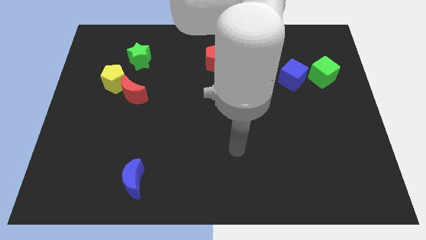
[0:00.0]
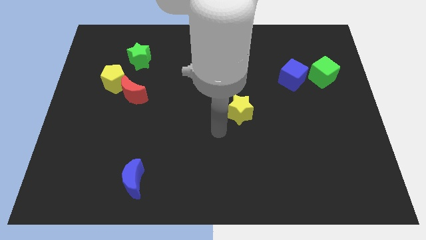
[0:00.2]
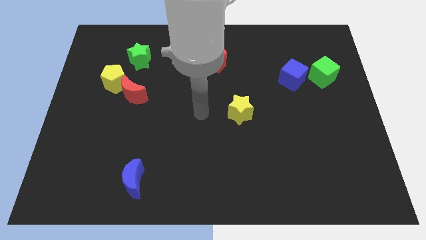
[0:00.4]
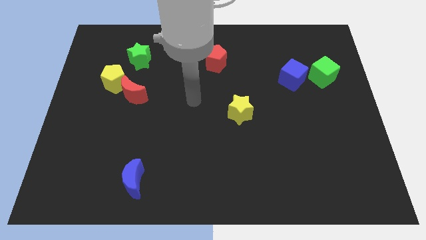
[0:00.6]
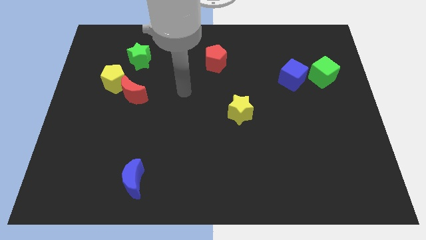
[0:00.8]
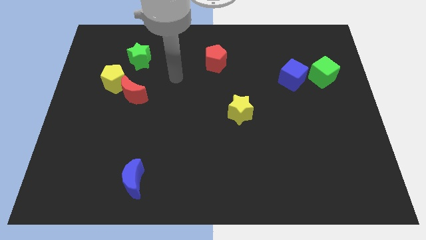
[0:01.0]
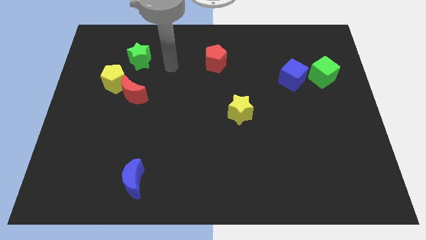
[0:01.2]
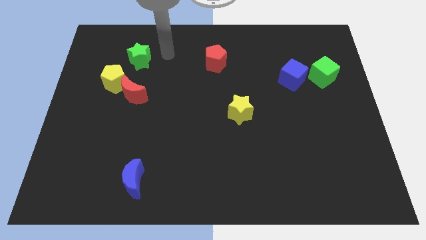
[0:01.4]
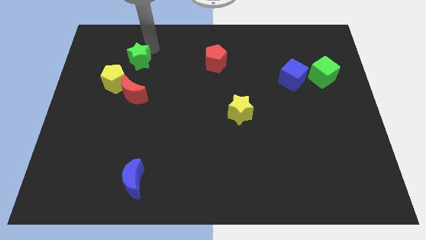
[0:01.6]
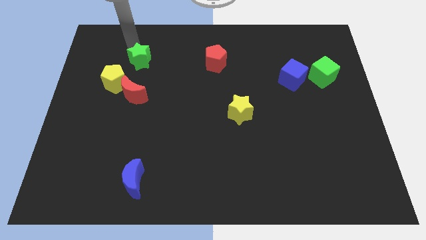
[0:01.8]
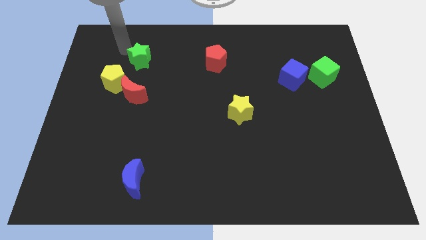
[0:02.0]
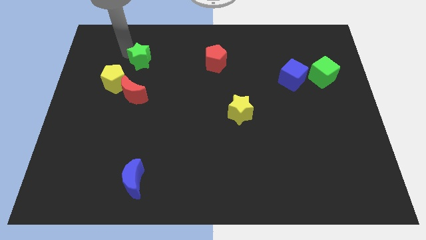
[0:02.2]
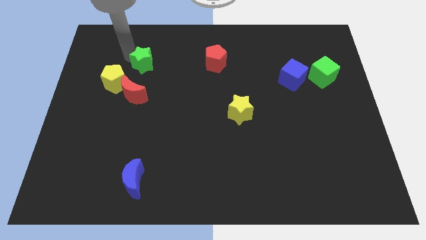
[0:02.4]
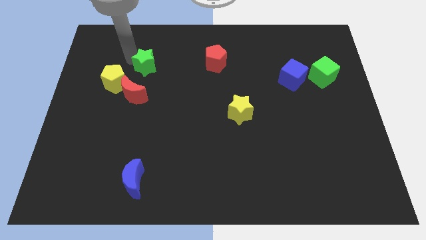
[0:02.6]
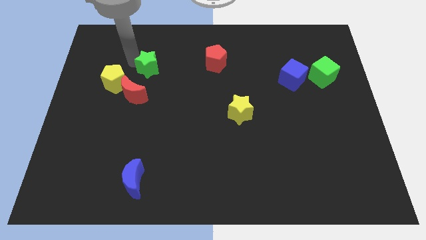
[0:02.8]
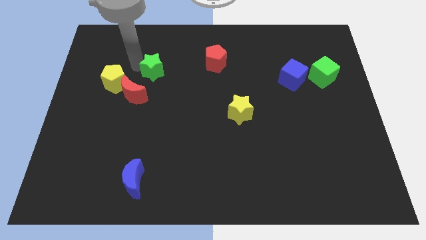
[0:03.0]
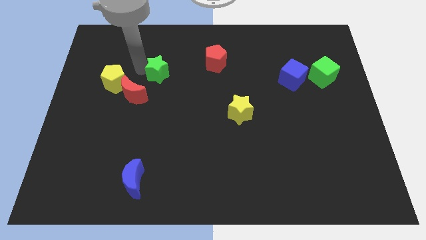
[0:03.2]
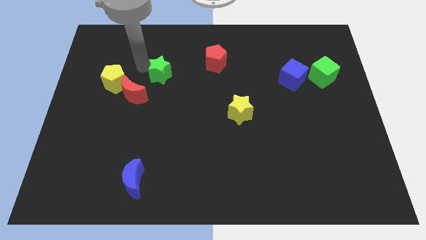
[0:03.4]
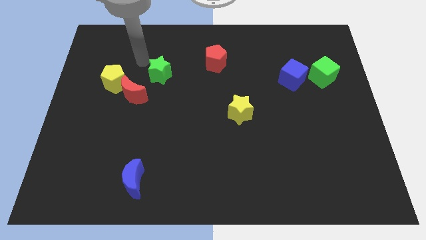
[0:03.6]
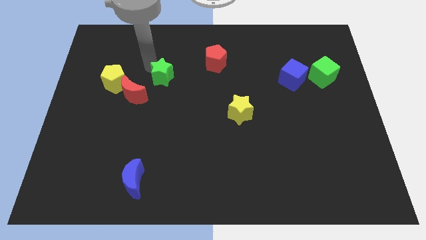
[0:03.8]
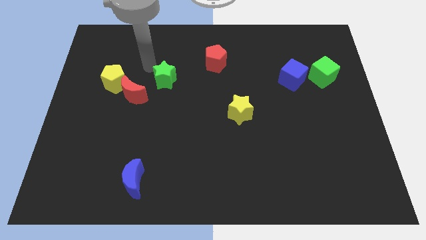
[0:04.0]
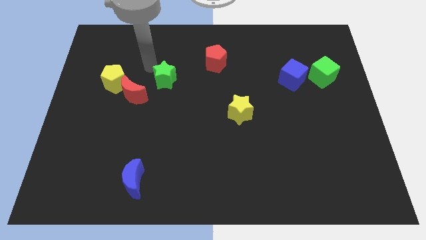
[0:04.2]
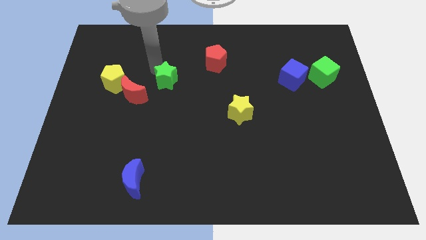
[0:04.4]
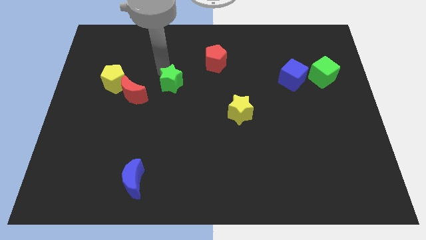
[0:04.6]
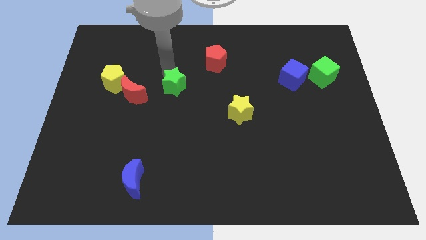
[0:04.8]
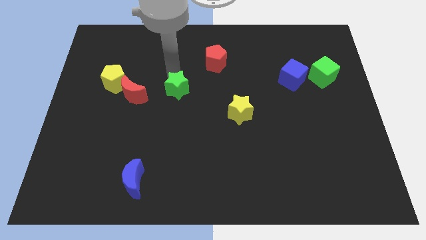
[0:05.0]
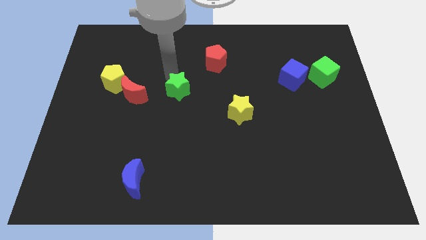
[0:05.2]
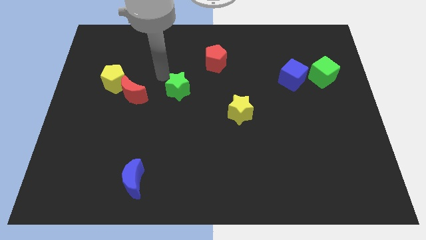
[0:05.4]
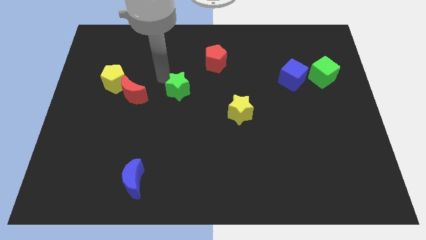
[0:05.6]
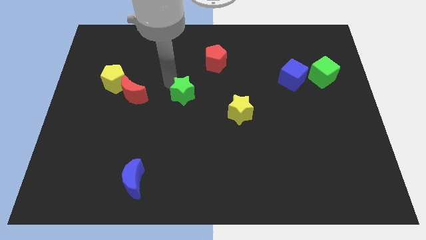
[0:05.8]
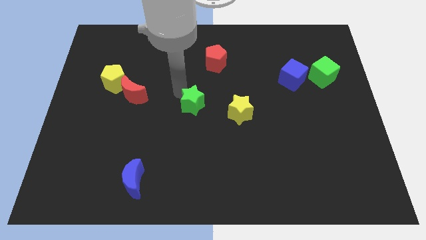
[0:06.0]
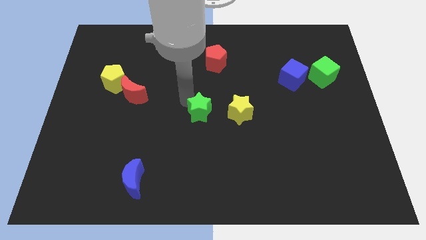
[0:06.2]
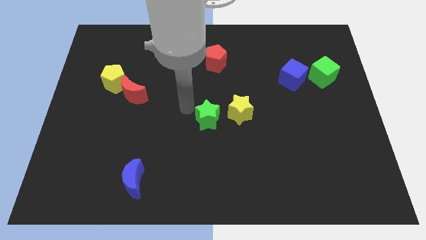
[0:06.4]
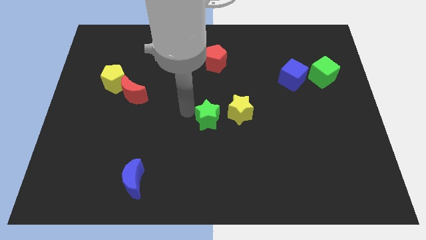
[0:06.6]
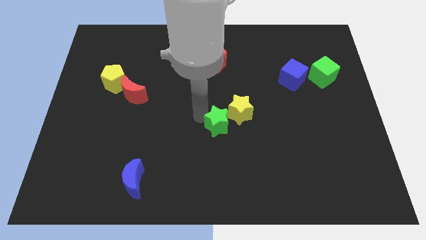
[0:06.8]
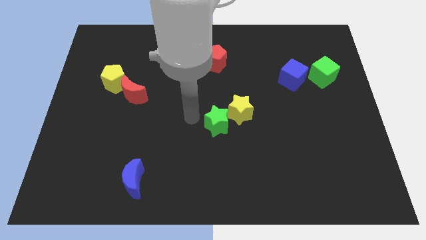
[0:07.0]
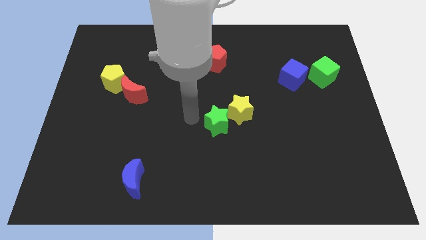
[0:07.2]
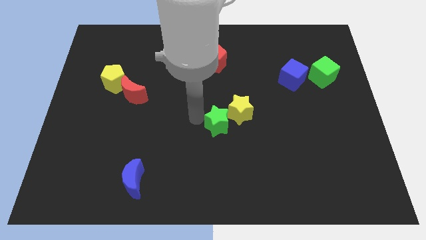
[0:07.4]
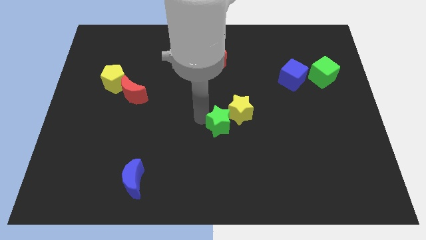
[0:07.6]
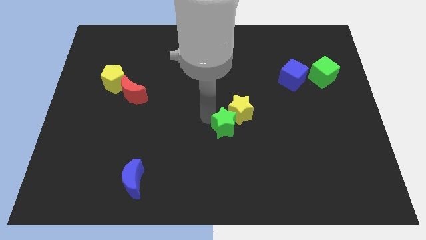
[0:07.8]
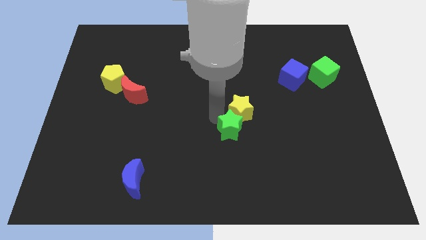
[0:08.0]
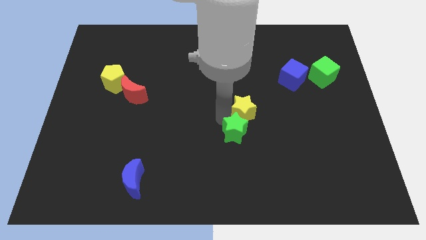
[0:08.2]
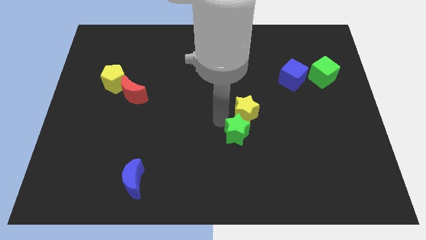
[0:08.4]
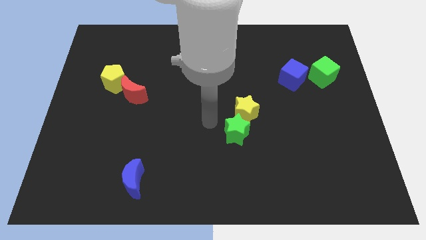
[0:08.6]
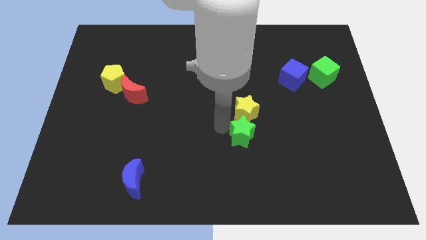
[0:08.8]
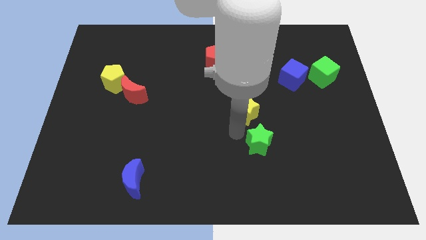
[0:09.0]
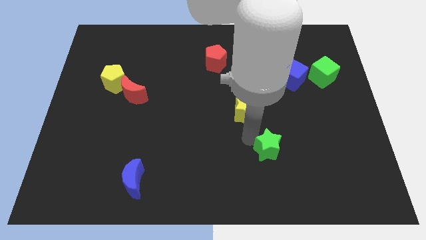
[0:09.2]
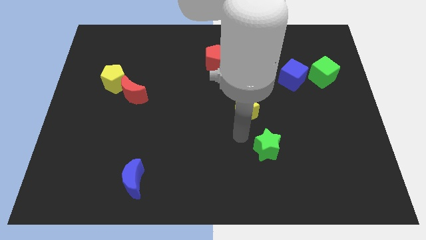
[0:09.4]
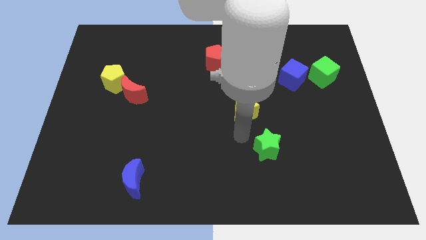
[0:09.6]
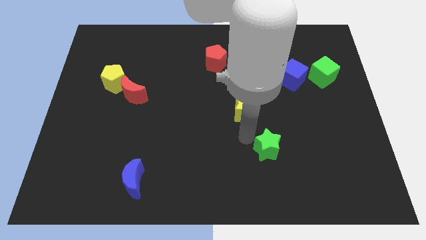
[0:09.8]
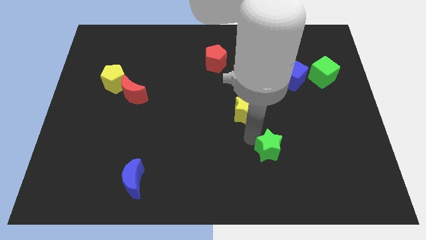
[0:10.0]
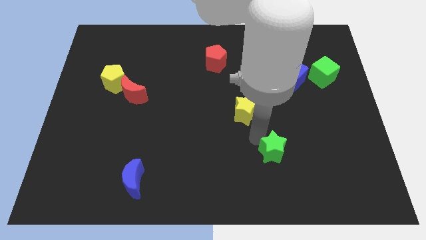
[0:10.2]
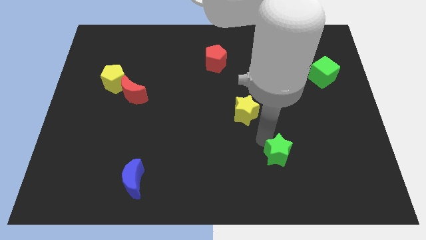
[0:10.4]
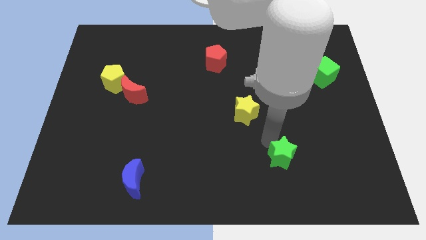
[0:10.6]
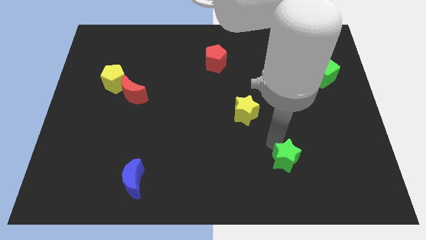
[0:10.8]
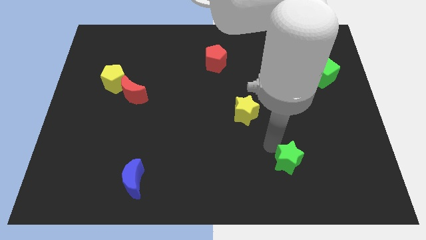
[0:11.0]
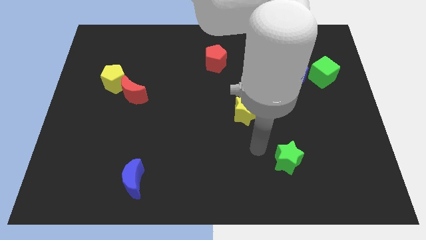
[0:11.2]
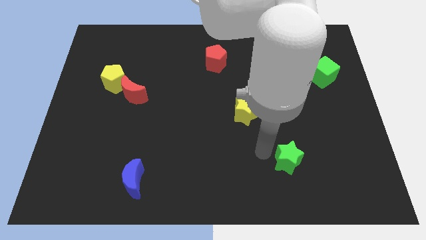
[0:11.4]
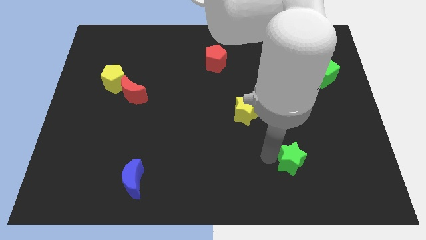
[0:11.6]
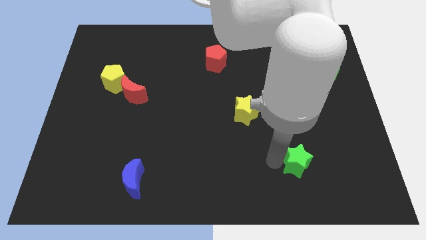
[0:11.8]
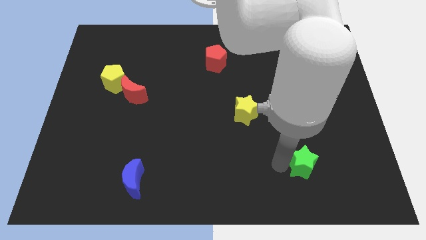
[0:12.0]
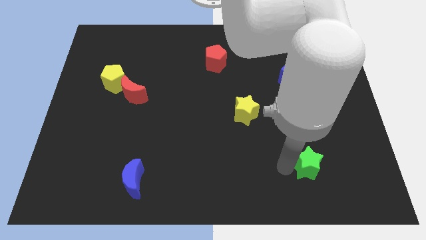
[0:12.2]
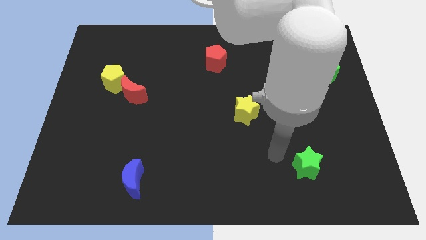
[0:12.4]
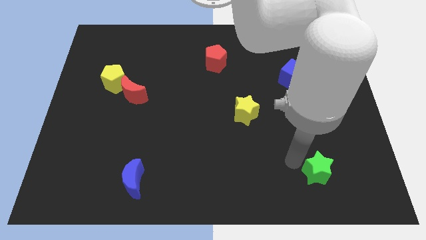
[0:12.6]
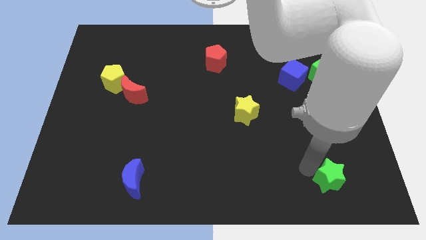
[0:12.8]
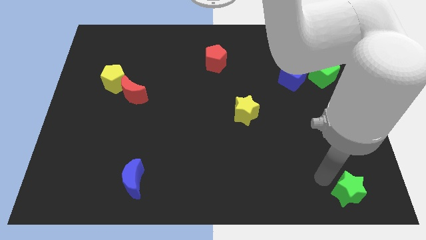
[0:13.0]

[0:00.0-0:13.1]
push the green star to the bottom right
